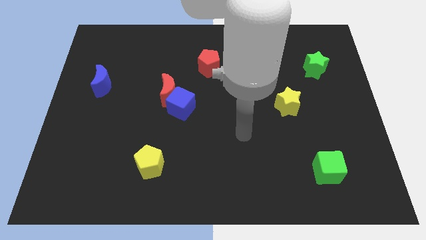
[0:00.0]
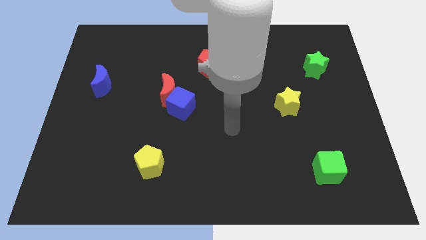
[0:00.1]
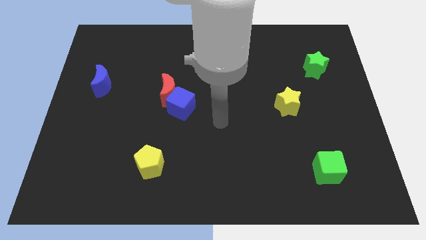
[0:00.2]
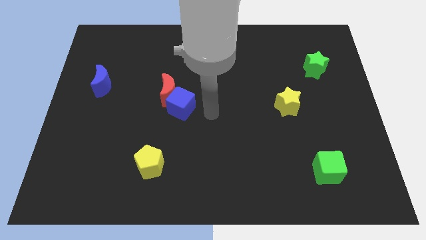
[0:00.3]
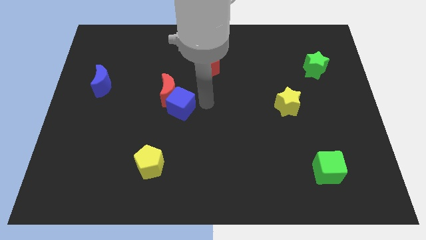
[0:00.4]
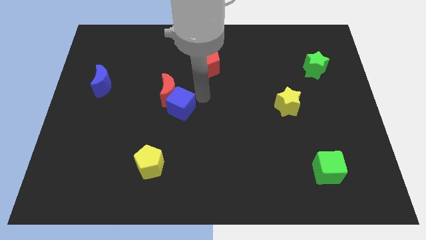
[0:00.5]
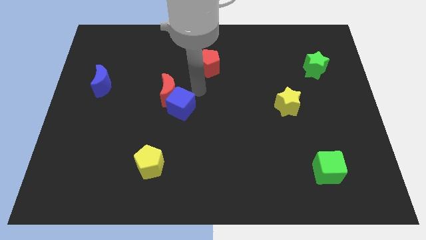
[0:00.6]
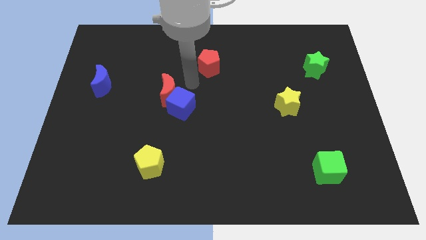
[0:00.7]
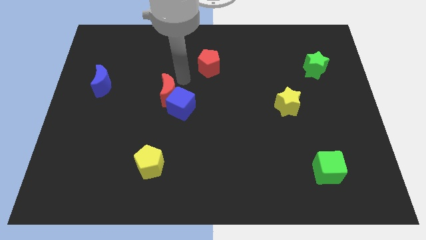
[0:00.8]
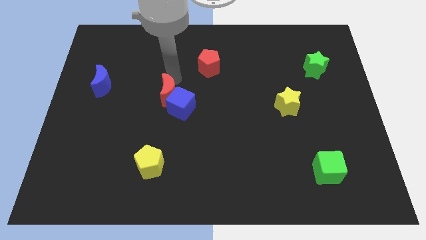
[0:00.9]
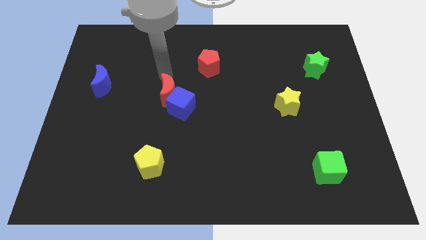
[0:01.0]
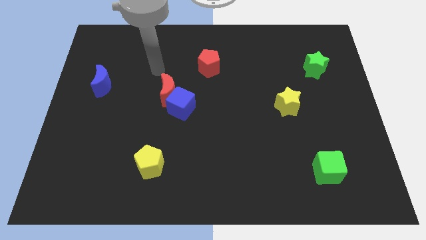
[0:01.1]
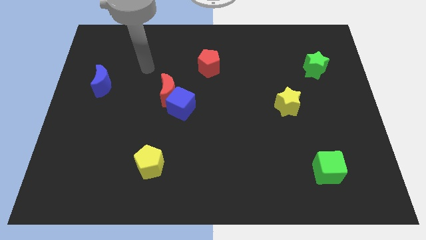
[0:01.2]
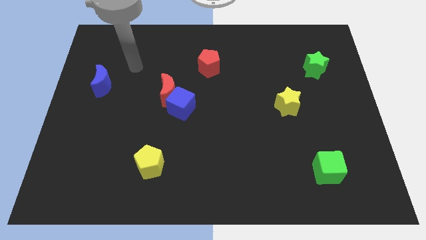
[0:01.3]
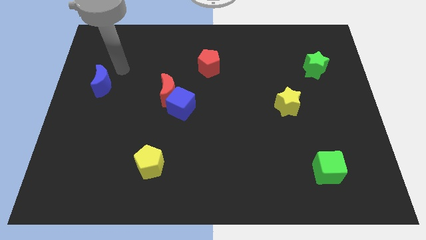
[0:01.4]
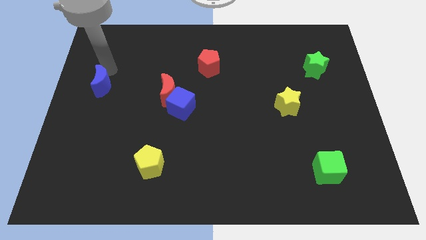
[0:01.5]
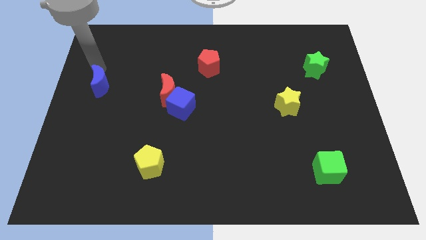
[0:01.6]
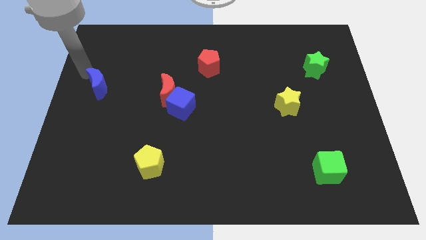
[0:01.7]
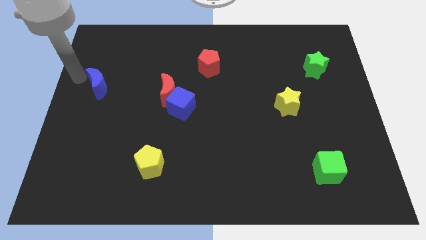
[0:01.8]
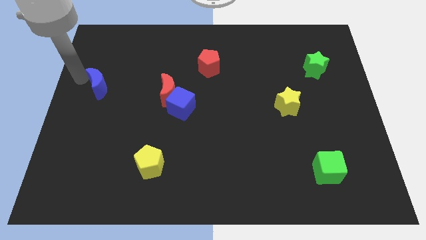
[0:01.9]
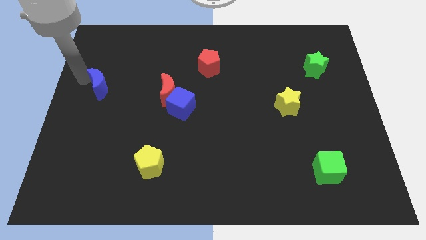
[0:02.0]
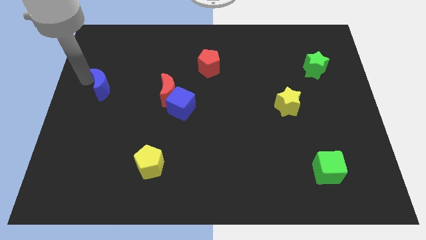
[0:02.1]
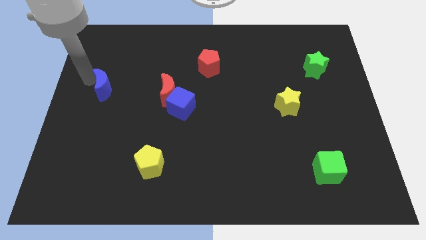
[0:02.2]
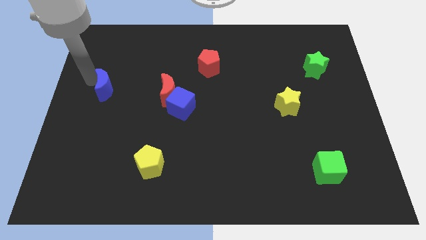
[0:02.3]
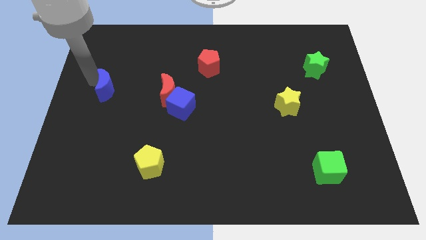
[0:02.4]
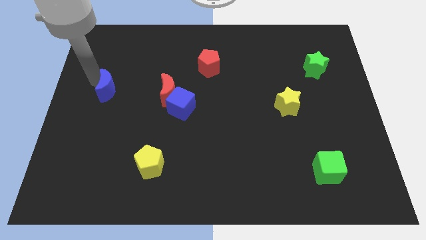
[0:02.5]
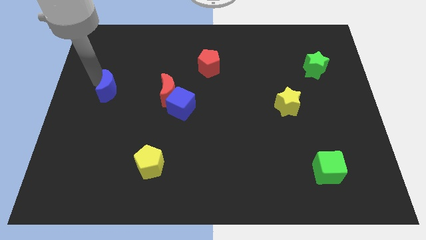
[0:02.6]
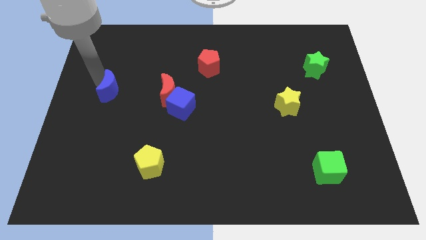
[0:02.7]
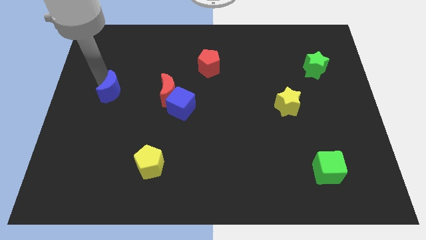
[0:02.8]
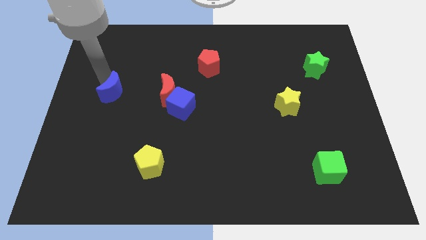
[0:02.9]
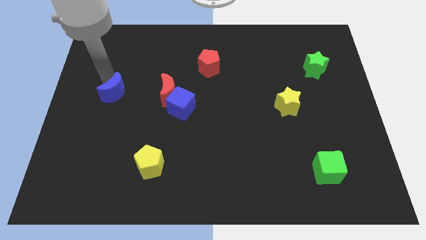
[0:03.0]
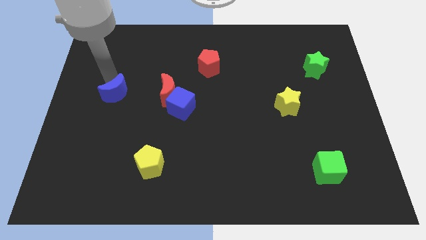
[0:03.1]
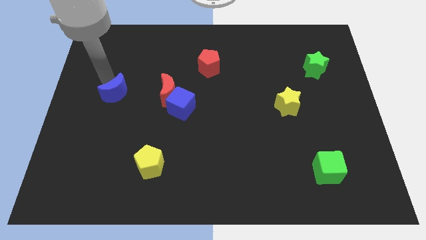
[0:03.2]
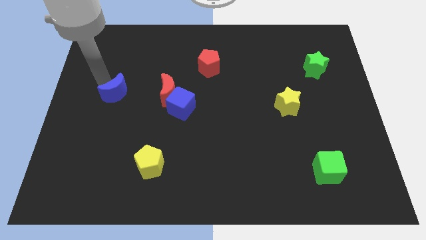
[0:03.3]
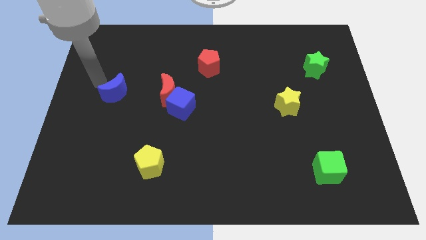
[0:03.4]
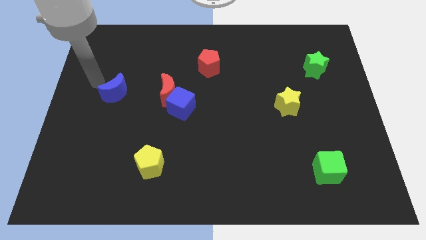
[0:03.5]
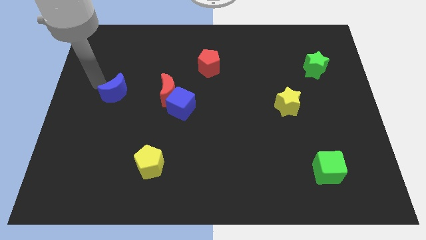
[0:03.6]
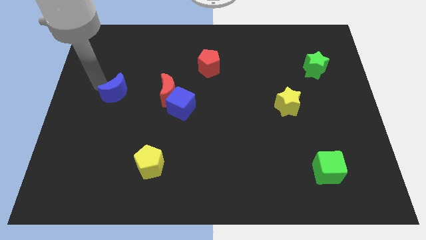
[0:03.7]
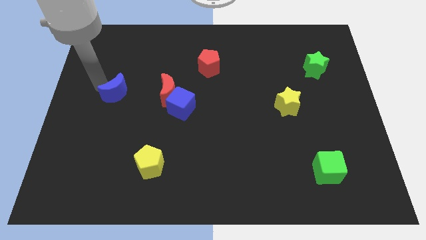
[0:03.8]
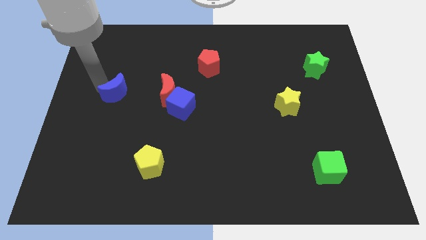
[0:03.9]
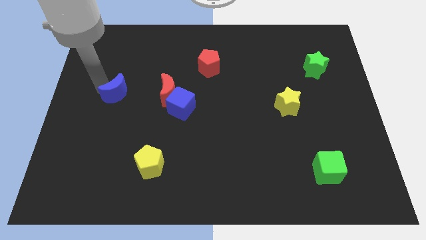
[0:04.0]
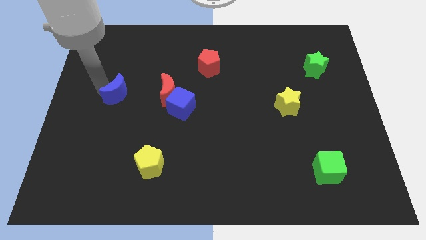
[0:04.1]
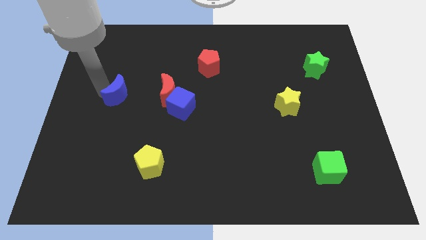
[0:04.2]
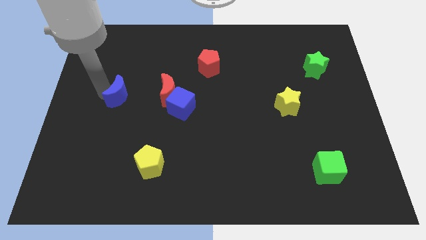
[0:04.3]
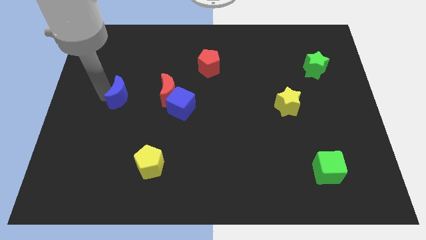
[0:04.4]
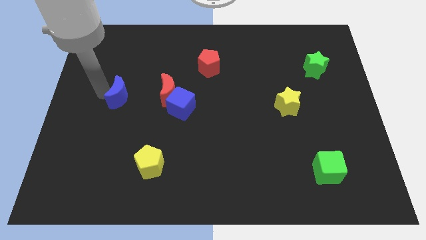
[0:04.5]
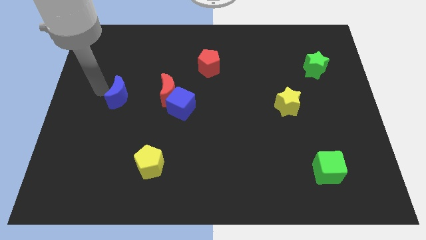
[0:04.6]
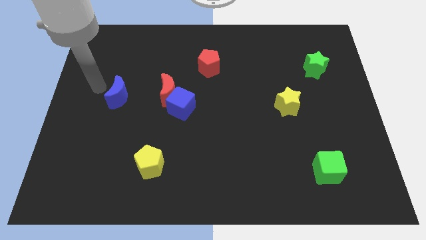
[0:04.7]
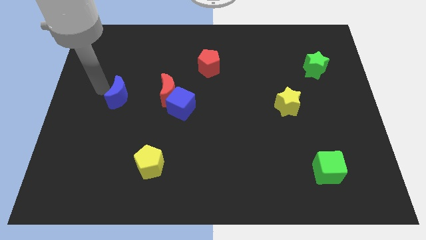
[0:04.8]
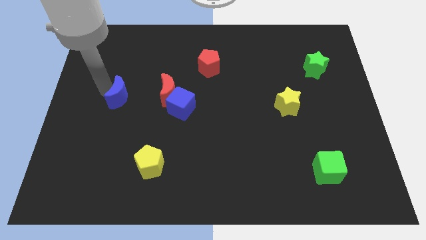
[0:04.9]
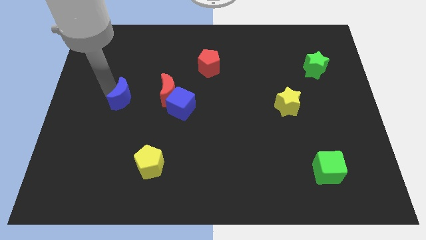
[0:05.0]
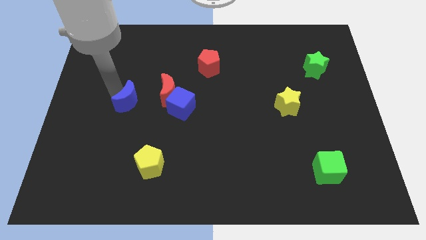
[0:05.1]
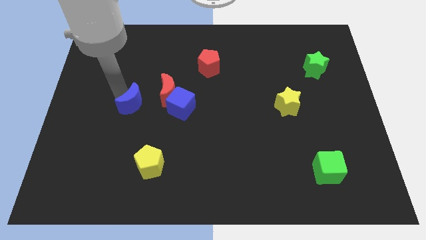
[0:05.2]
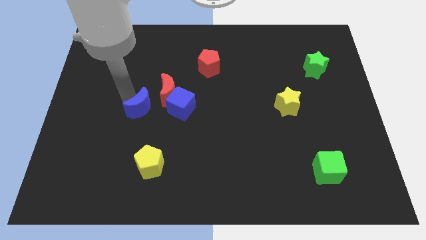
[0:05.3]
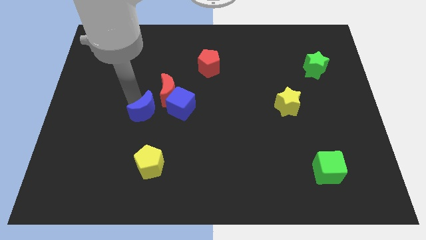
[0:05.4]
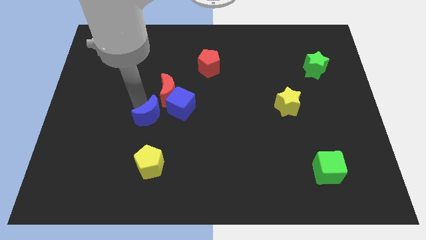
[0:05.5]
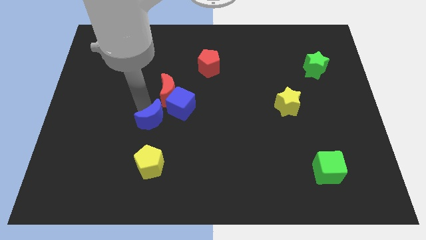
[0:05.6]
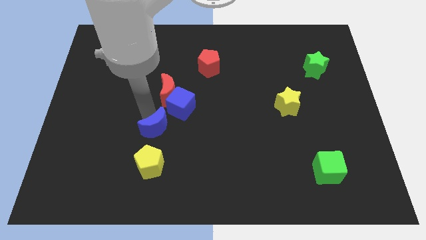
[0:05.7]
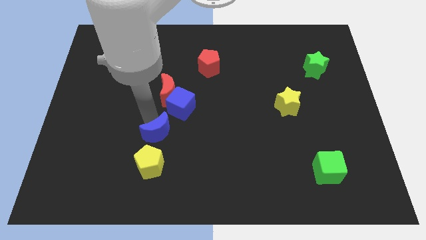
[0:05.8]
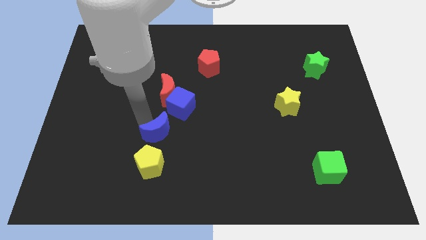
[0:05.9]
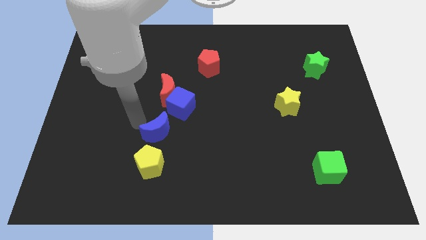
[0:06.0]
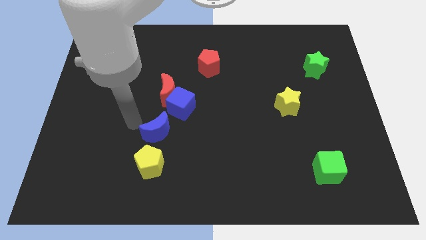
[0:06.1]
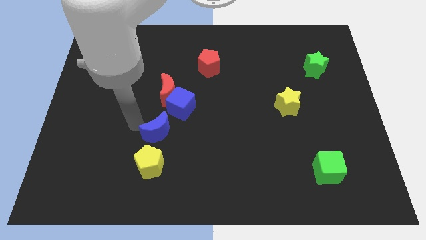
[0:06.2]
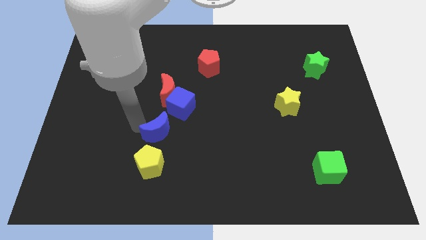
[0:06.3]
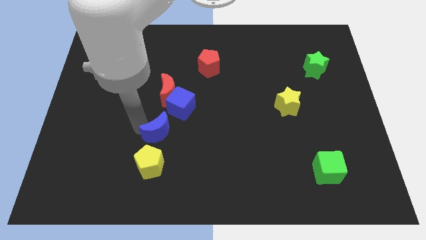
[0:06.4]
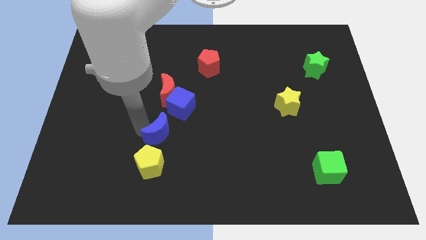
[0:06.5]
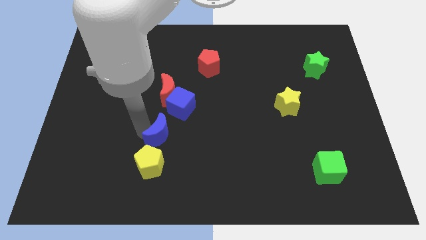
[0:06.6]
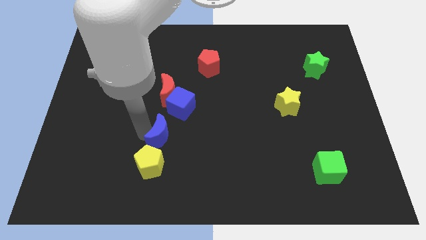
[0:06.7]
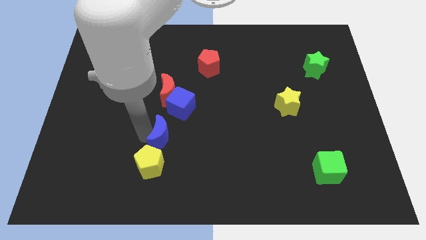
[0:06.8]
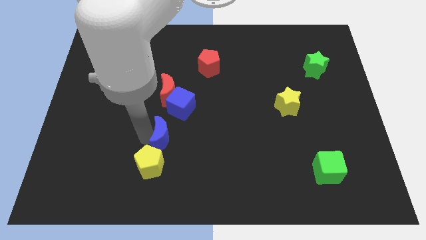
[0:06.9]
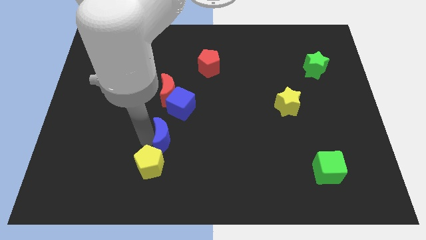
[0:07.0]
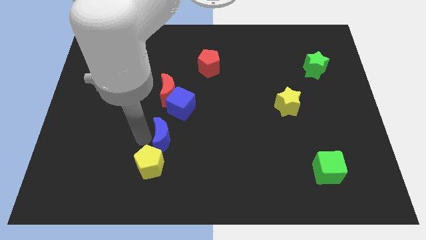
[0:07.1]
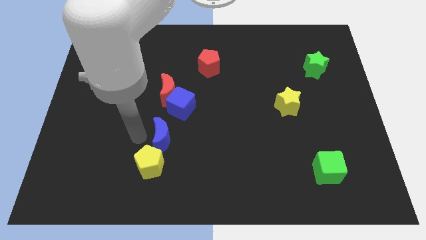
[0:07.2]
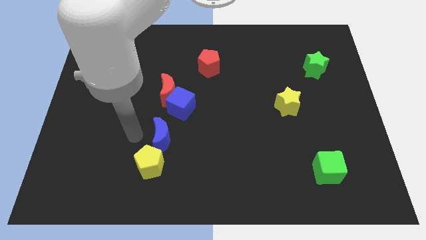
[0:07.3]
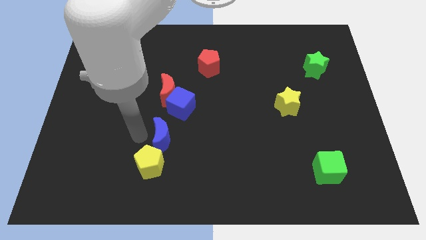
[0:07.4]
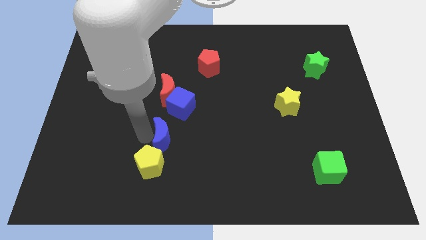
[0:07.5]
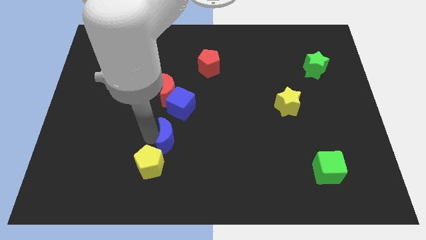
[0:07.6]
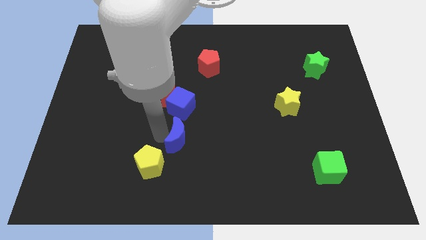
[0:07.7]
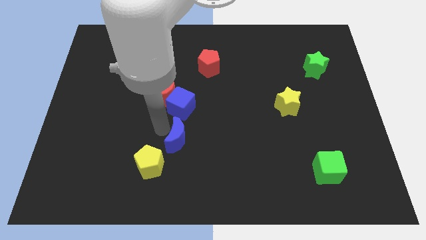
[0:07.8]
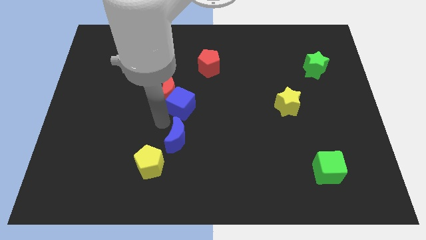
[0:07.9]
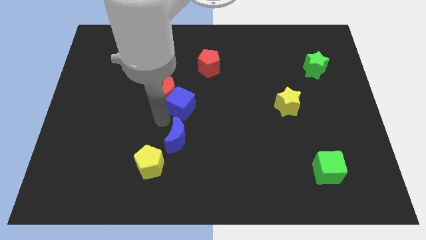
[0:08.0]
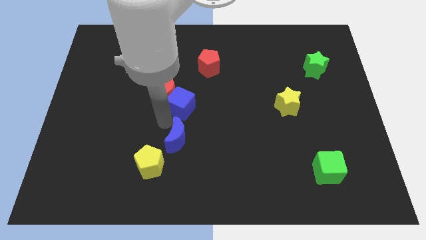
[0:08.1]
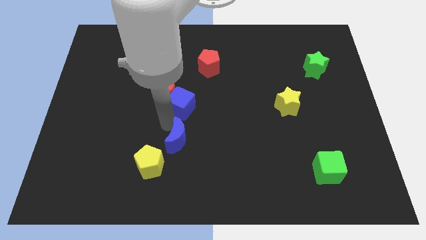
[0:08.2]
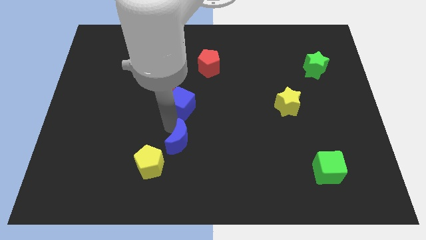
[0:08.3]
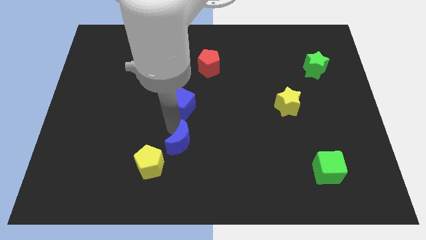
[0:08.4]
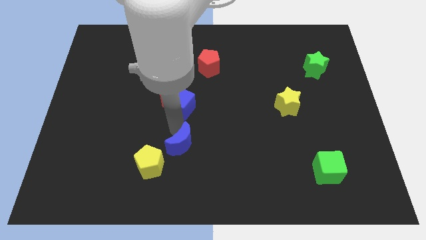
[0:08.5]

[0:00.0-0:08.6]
put the blue moon to the right side of the yellow pentagon
